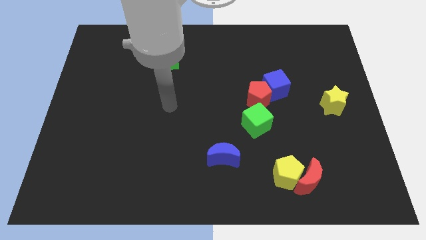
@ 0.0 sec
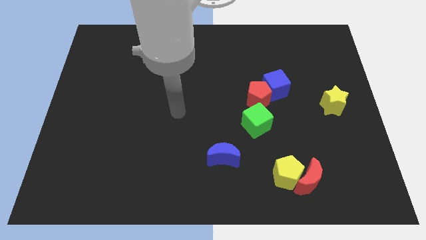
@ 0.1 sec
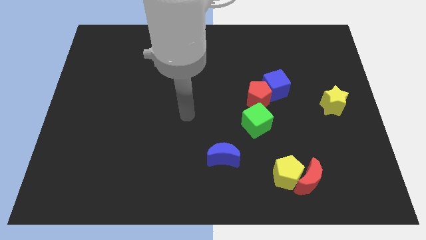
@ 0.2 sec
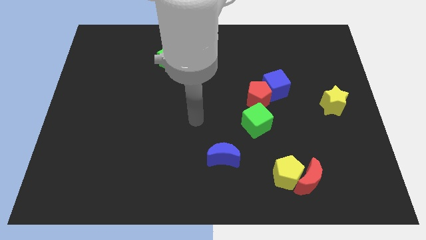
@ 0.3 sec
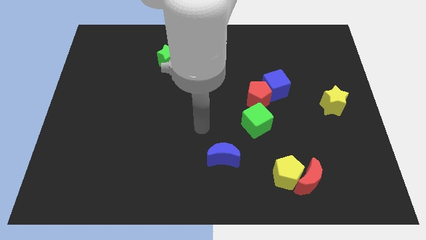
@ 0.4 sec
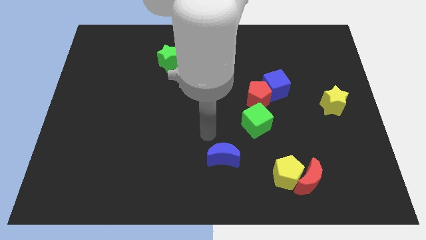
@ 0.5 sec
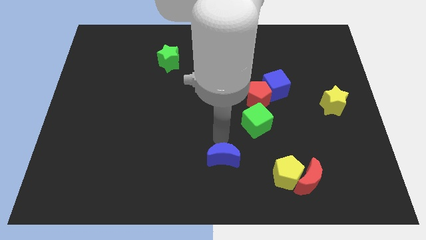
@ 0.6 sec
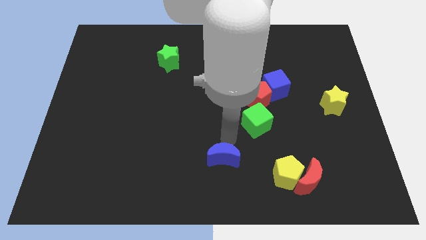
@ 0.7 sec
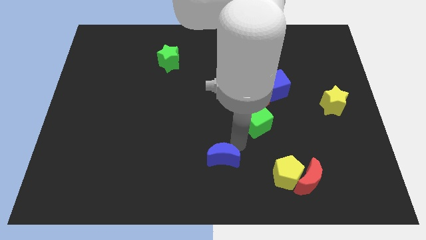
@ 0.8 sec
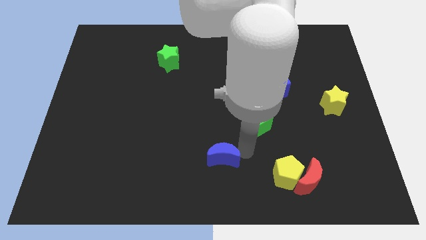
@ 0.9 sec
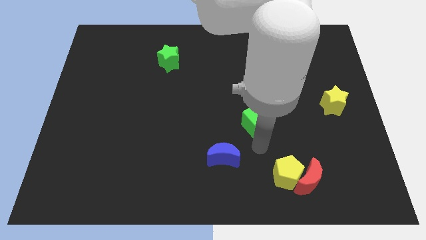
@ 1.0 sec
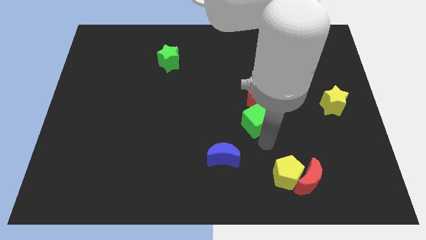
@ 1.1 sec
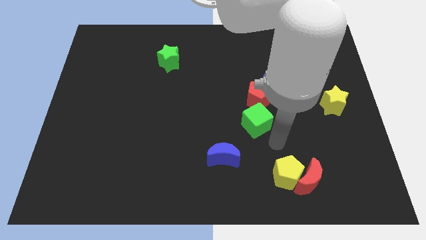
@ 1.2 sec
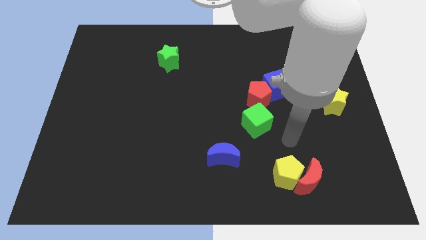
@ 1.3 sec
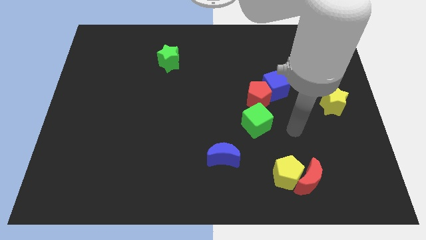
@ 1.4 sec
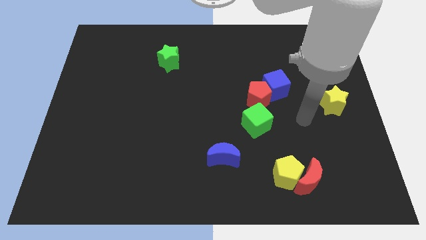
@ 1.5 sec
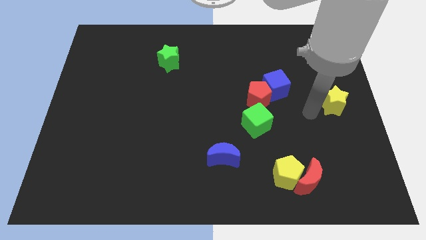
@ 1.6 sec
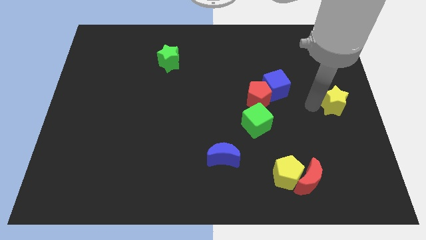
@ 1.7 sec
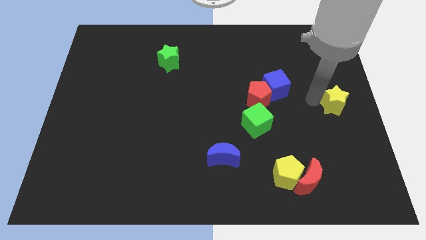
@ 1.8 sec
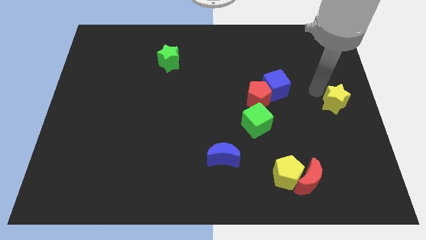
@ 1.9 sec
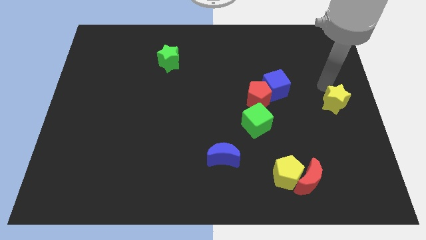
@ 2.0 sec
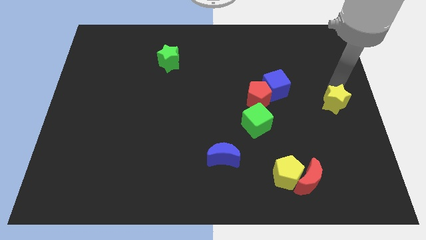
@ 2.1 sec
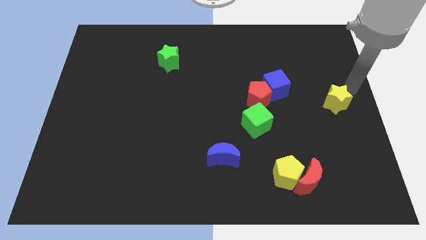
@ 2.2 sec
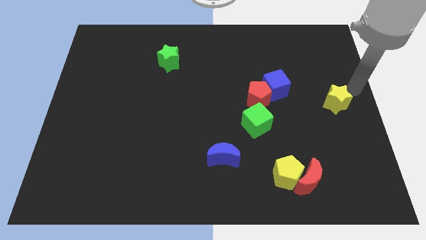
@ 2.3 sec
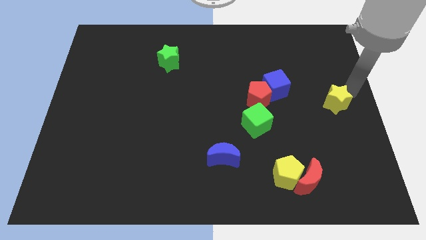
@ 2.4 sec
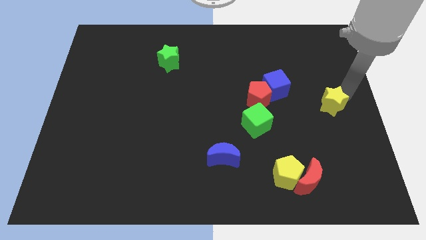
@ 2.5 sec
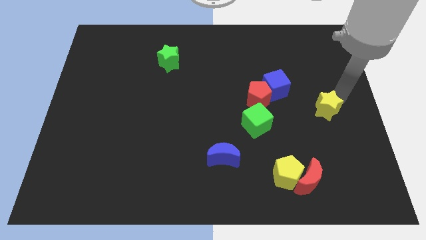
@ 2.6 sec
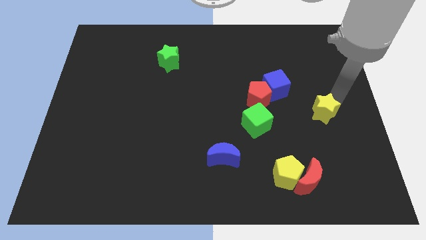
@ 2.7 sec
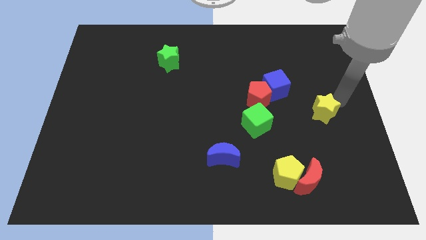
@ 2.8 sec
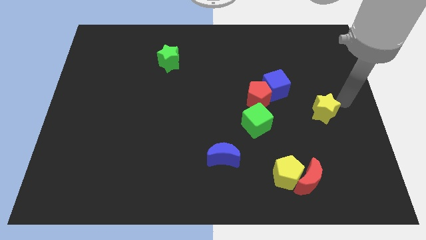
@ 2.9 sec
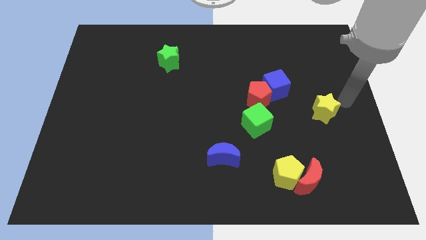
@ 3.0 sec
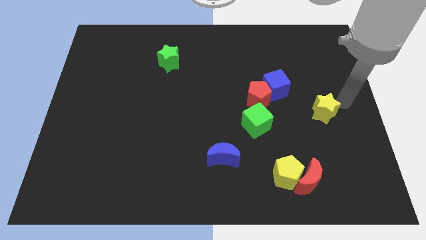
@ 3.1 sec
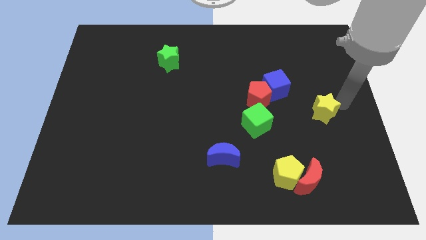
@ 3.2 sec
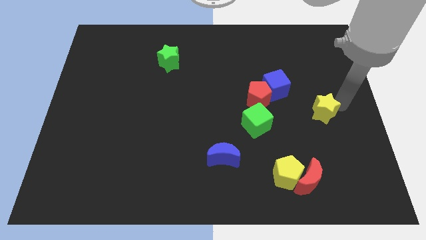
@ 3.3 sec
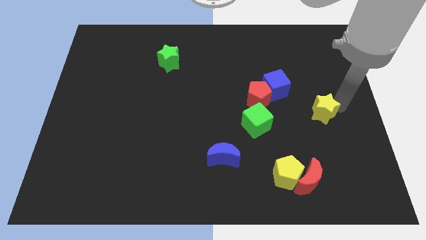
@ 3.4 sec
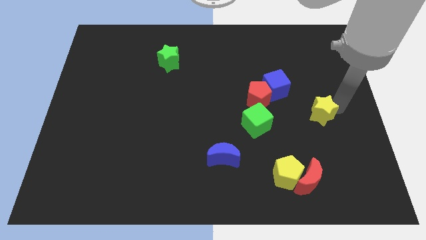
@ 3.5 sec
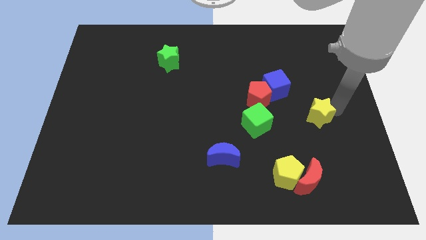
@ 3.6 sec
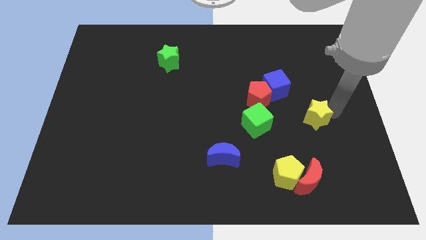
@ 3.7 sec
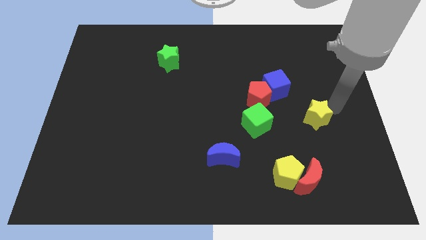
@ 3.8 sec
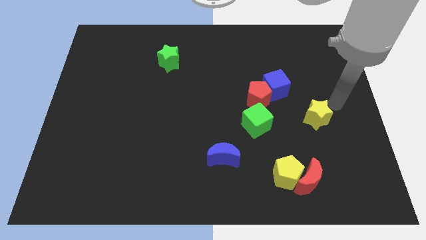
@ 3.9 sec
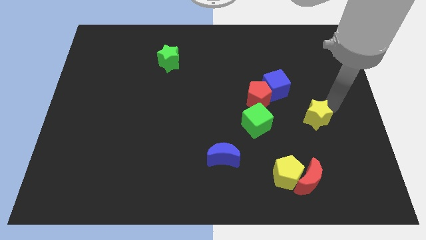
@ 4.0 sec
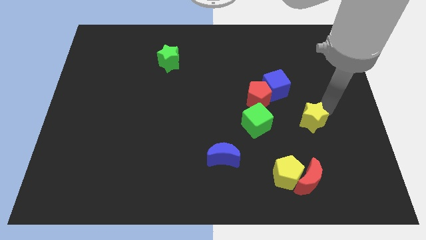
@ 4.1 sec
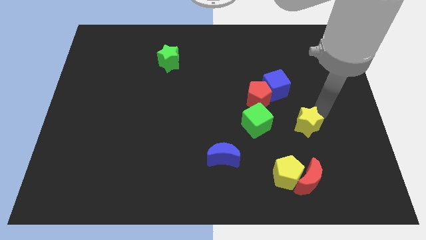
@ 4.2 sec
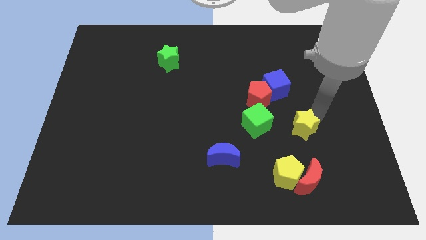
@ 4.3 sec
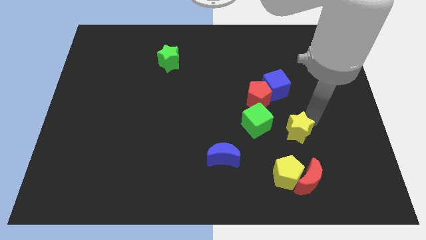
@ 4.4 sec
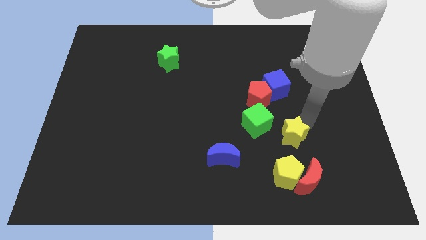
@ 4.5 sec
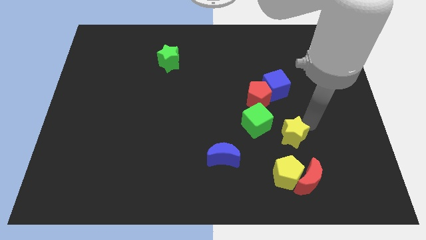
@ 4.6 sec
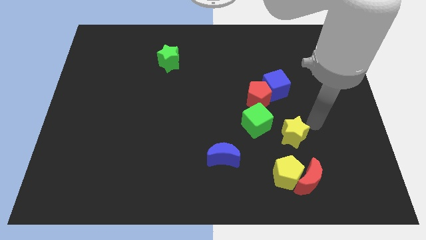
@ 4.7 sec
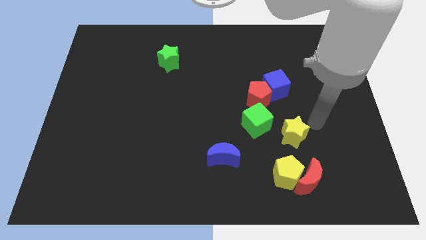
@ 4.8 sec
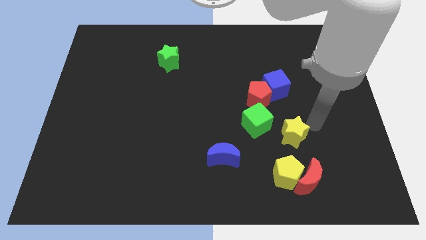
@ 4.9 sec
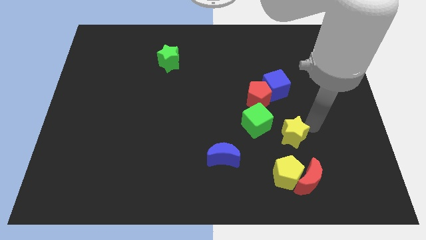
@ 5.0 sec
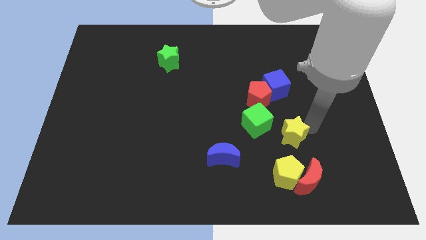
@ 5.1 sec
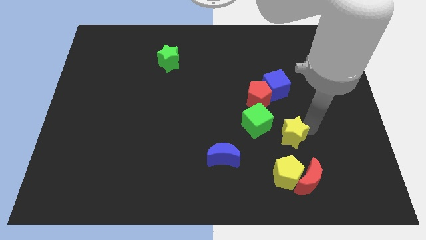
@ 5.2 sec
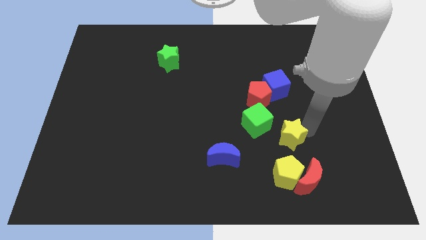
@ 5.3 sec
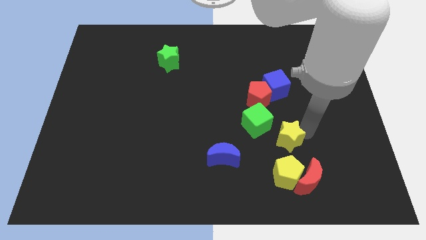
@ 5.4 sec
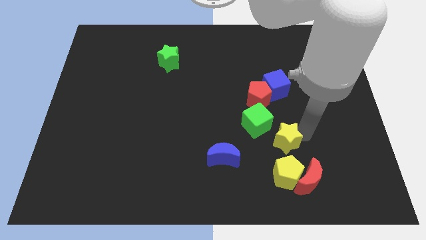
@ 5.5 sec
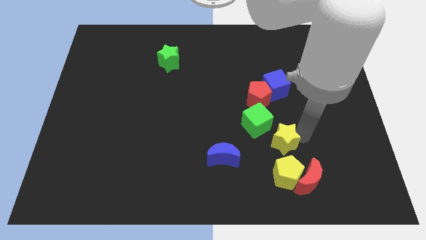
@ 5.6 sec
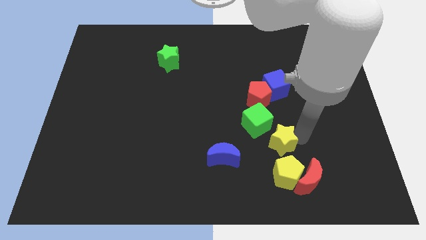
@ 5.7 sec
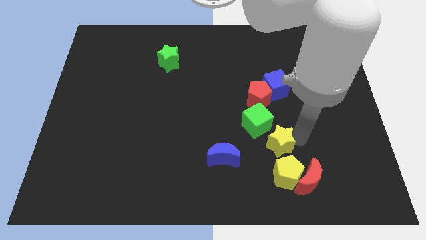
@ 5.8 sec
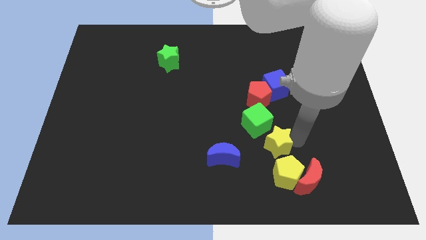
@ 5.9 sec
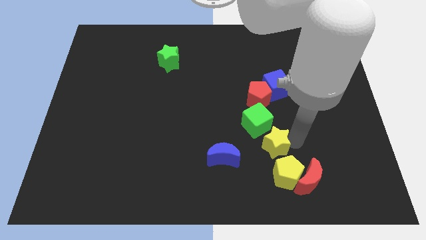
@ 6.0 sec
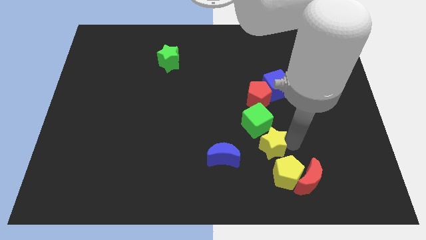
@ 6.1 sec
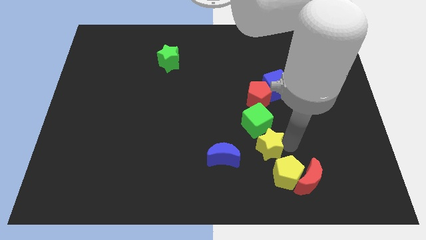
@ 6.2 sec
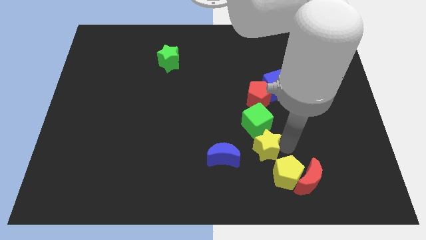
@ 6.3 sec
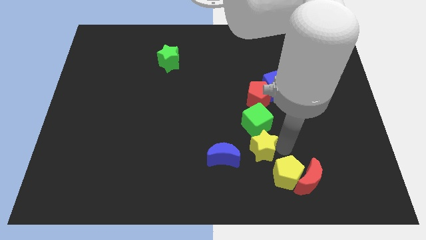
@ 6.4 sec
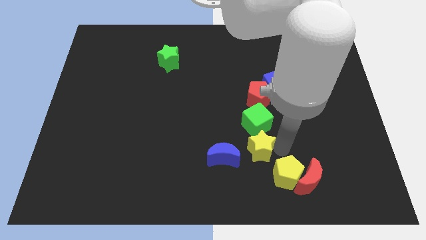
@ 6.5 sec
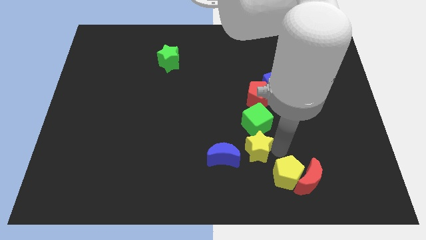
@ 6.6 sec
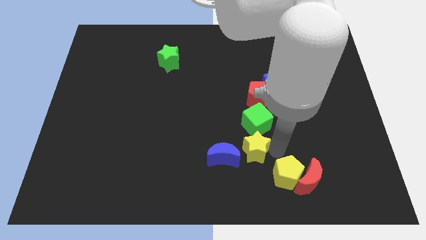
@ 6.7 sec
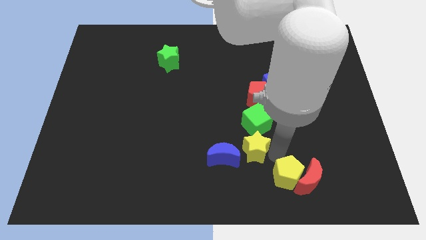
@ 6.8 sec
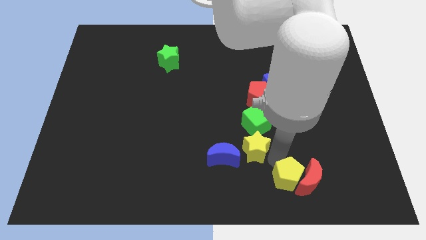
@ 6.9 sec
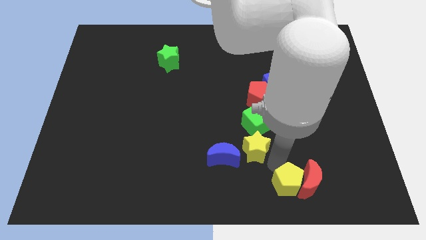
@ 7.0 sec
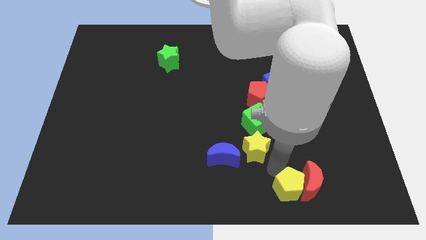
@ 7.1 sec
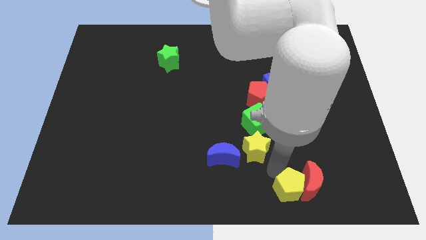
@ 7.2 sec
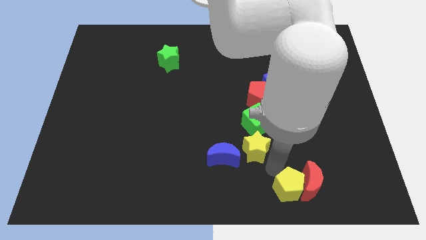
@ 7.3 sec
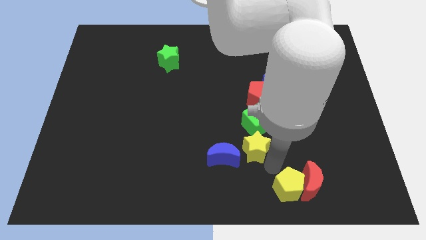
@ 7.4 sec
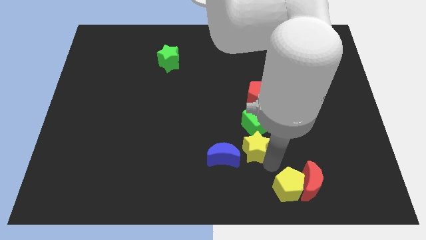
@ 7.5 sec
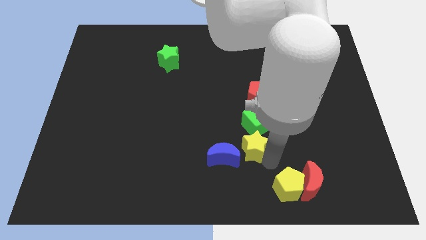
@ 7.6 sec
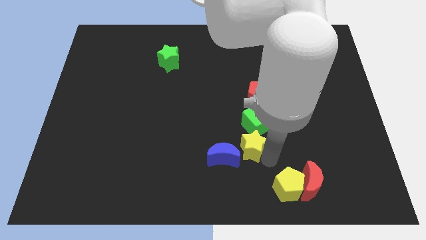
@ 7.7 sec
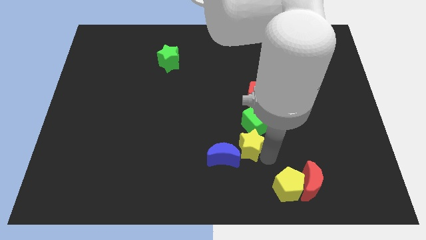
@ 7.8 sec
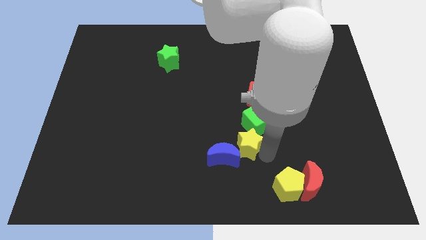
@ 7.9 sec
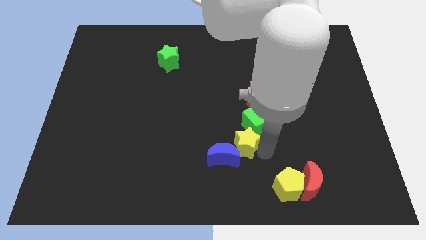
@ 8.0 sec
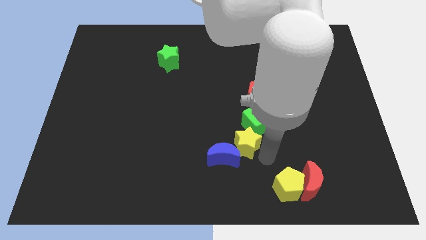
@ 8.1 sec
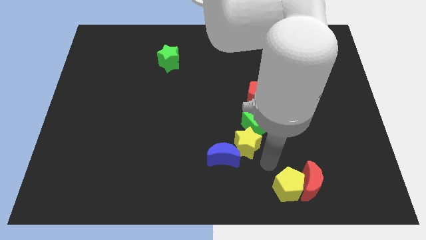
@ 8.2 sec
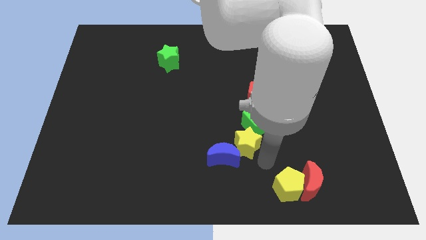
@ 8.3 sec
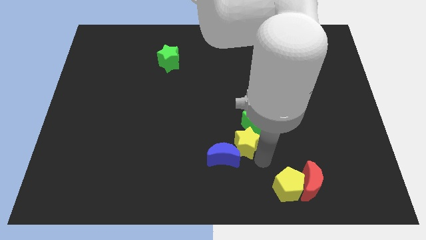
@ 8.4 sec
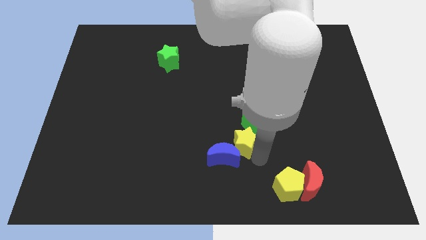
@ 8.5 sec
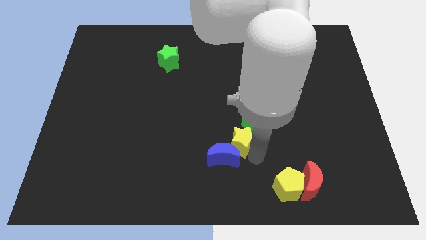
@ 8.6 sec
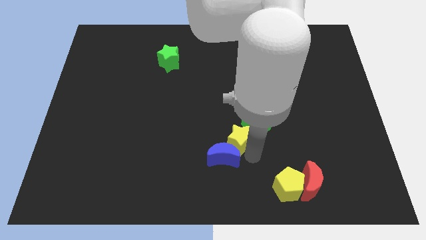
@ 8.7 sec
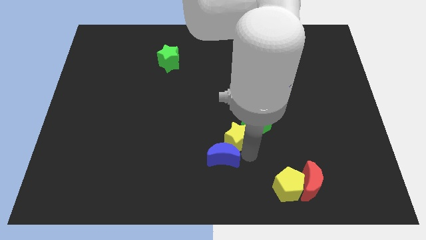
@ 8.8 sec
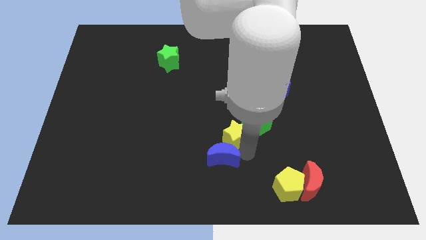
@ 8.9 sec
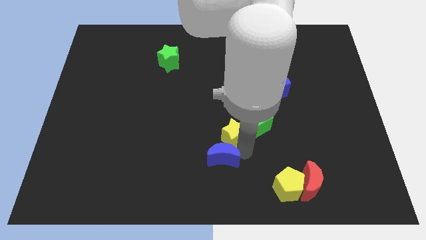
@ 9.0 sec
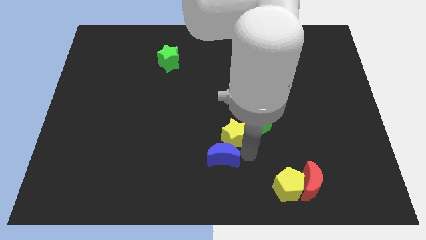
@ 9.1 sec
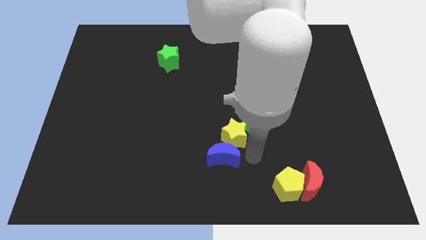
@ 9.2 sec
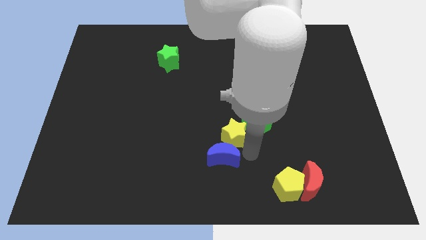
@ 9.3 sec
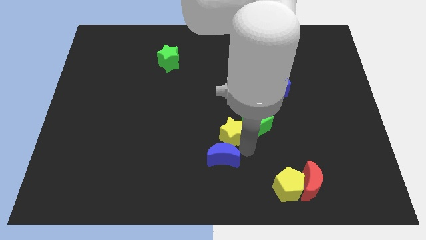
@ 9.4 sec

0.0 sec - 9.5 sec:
slide the yellow star to the left
